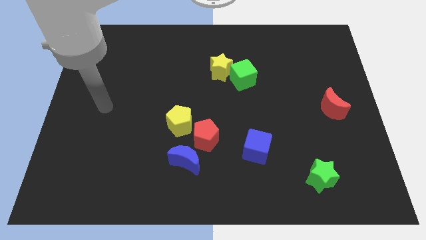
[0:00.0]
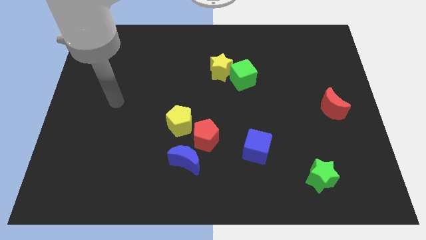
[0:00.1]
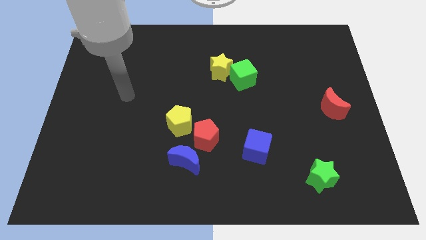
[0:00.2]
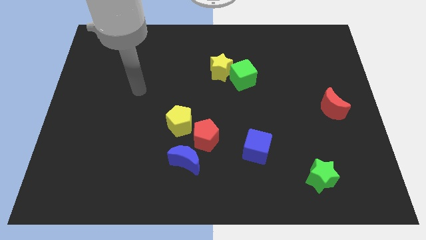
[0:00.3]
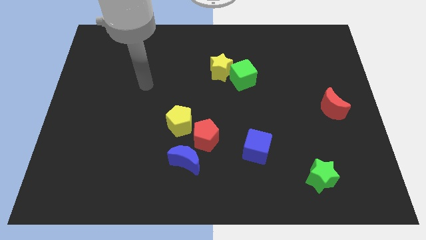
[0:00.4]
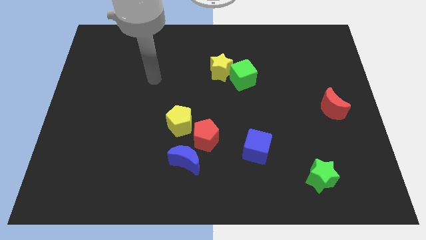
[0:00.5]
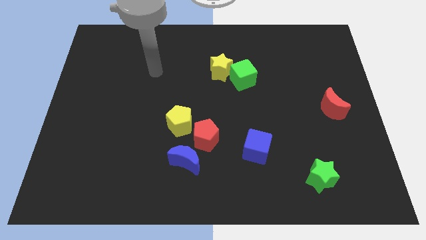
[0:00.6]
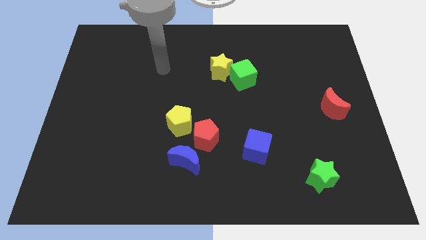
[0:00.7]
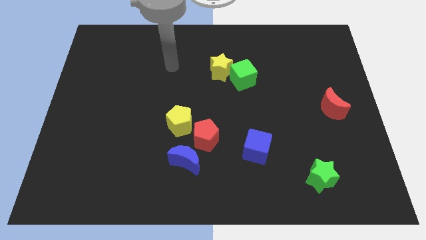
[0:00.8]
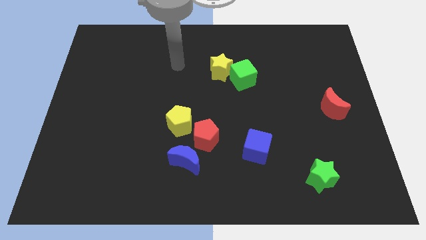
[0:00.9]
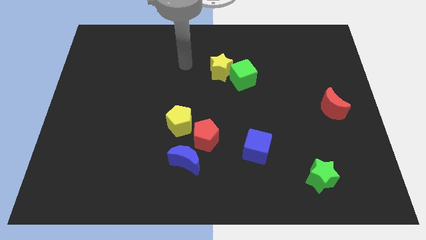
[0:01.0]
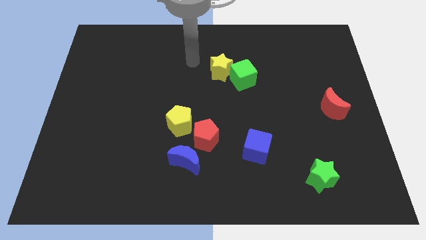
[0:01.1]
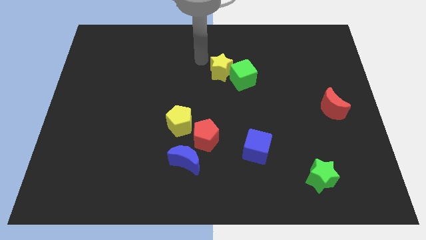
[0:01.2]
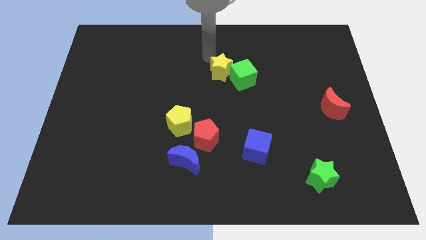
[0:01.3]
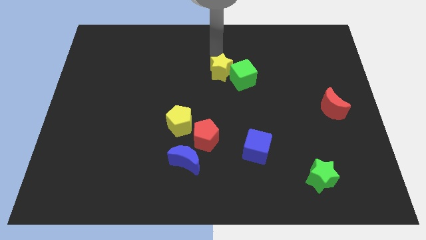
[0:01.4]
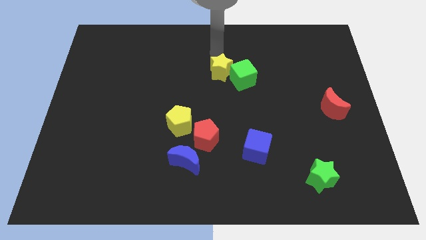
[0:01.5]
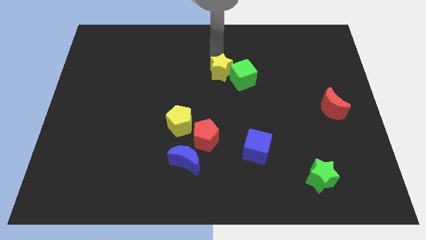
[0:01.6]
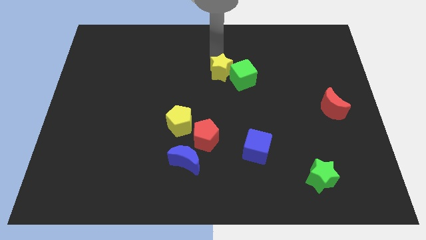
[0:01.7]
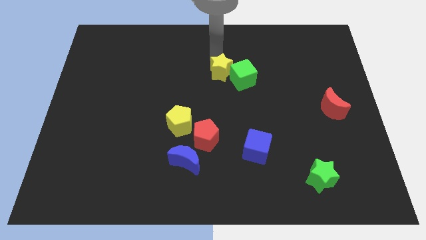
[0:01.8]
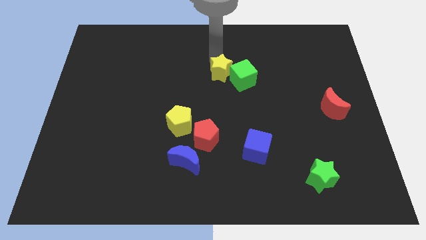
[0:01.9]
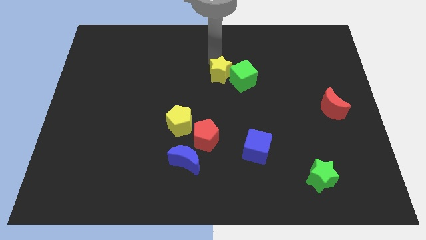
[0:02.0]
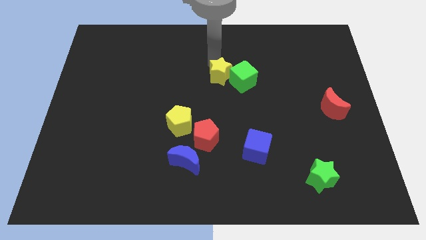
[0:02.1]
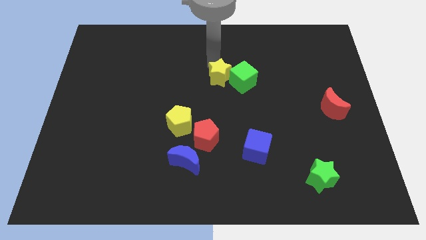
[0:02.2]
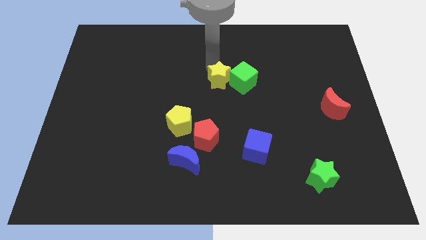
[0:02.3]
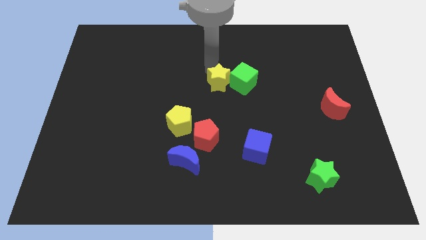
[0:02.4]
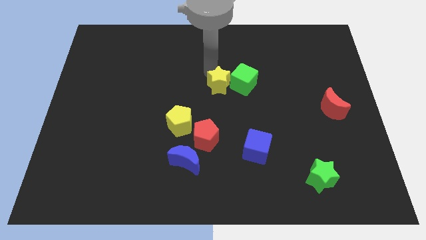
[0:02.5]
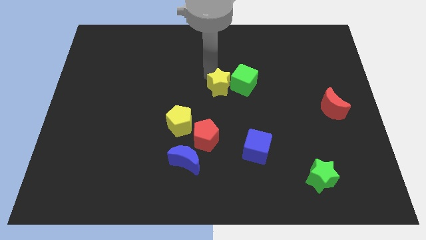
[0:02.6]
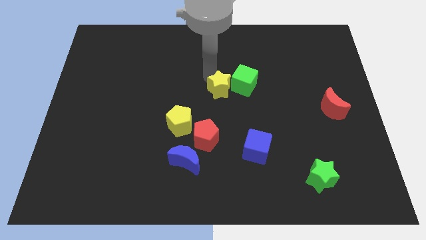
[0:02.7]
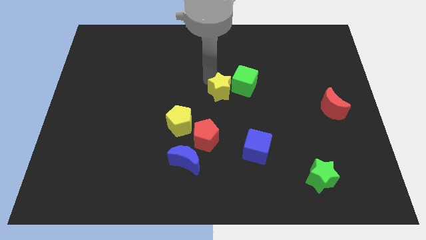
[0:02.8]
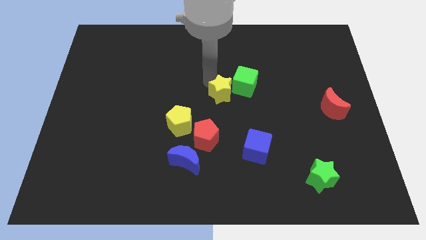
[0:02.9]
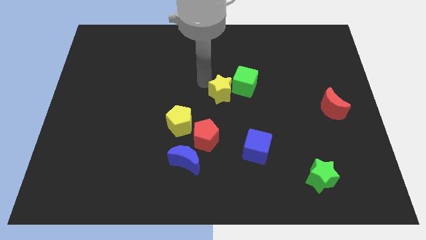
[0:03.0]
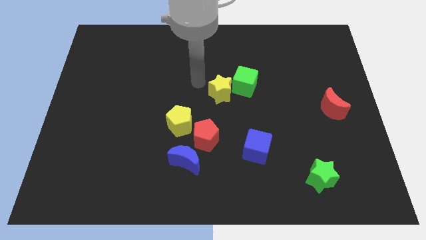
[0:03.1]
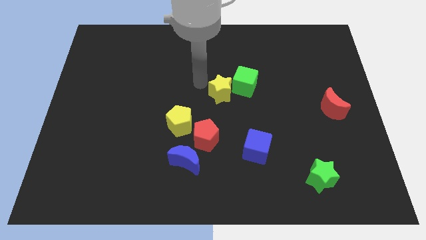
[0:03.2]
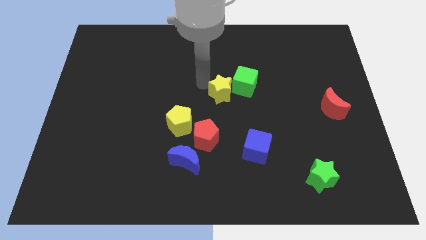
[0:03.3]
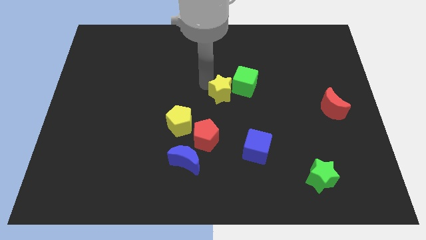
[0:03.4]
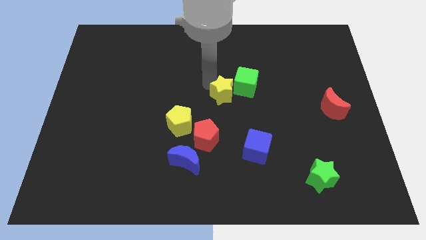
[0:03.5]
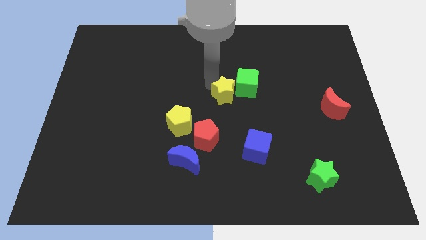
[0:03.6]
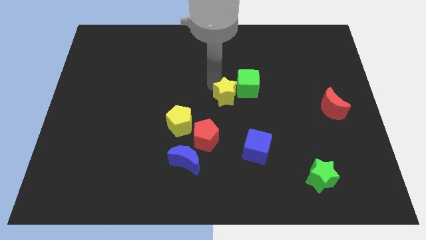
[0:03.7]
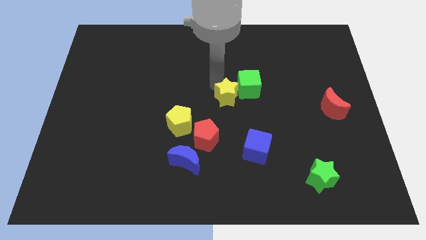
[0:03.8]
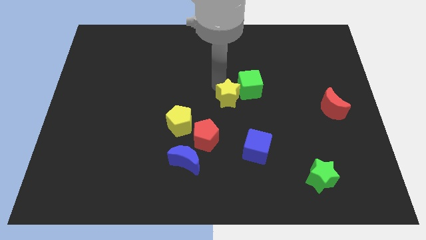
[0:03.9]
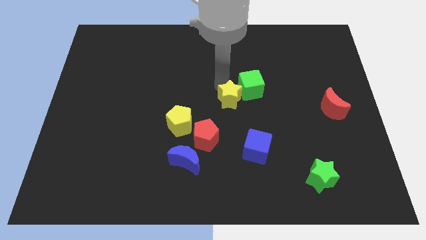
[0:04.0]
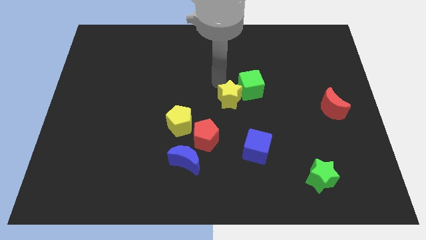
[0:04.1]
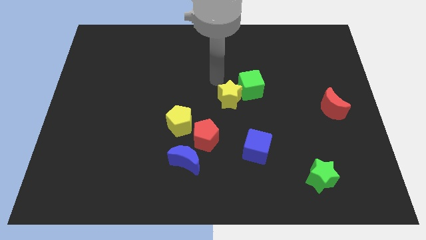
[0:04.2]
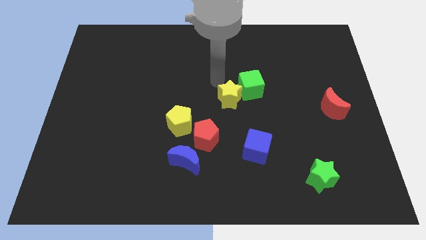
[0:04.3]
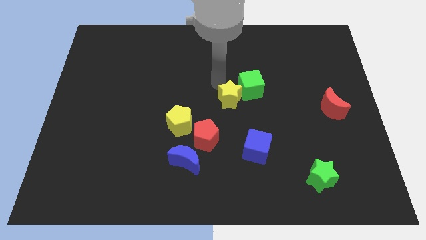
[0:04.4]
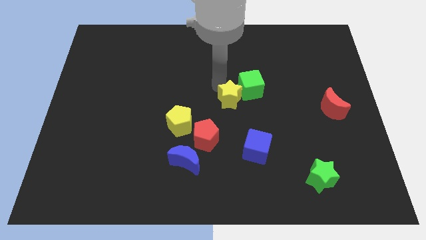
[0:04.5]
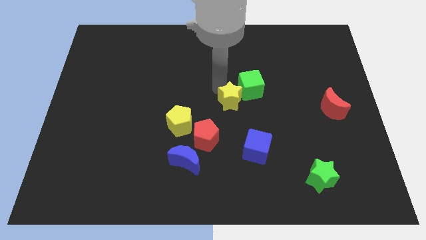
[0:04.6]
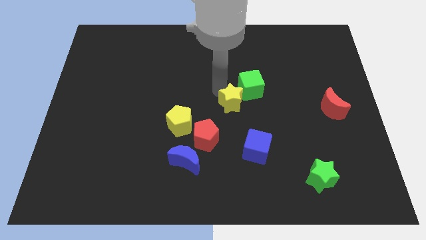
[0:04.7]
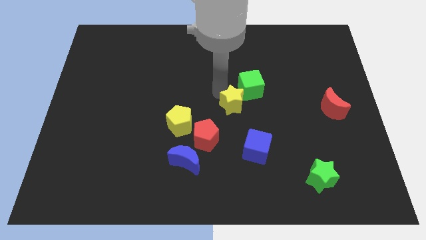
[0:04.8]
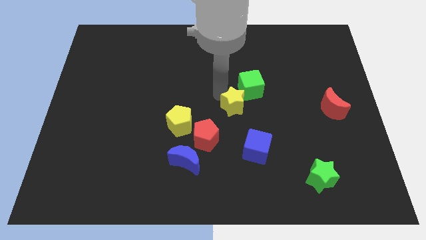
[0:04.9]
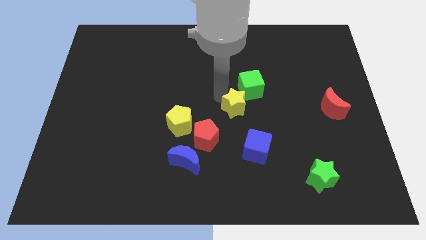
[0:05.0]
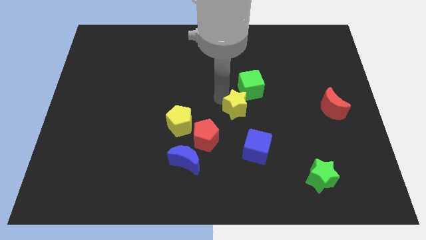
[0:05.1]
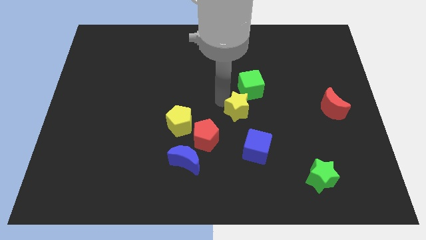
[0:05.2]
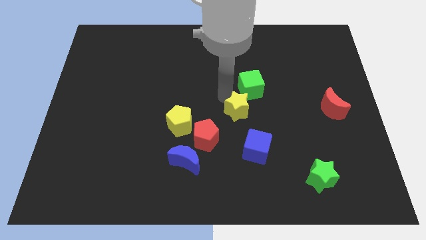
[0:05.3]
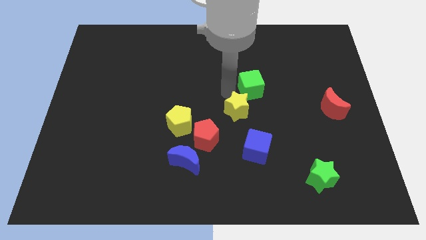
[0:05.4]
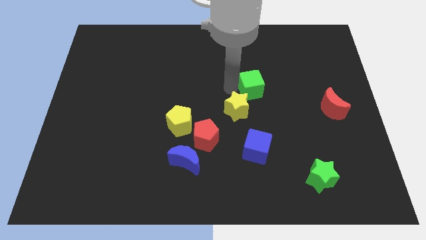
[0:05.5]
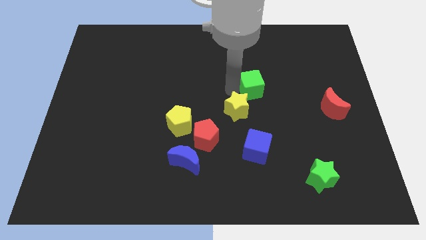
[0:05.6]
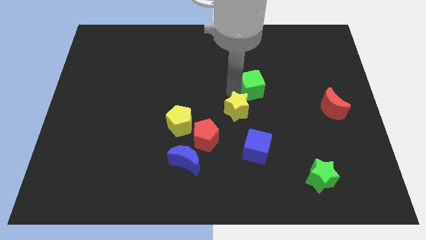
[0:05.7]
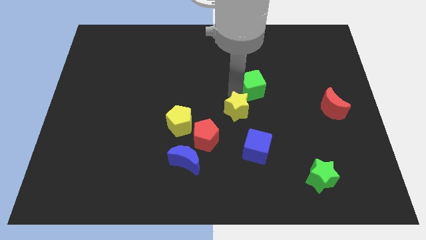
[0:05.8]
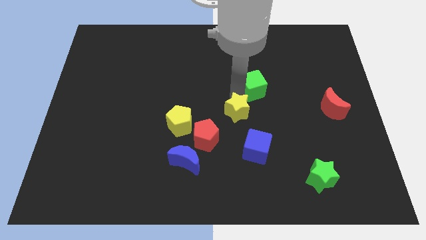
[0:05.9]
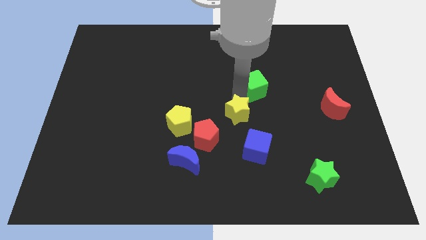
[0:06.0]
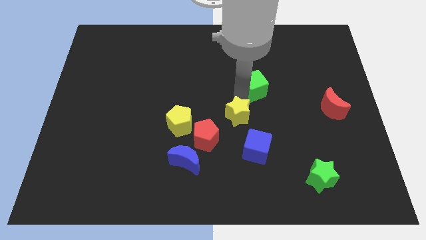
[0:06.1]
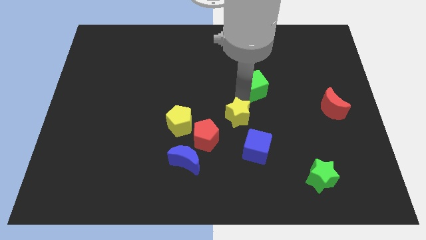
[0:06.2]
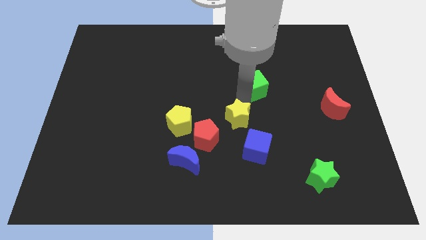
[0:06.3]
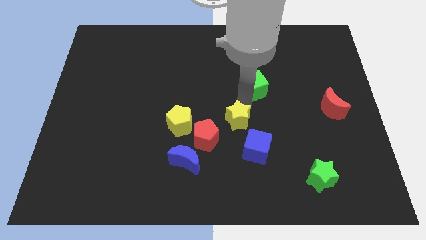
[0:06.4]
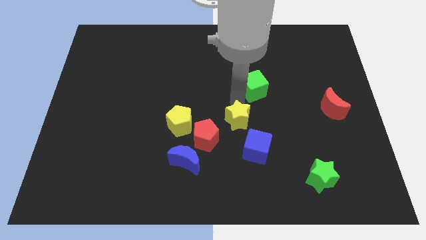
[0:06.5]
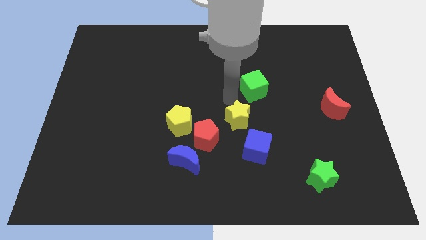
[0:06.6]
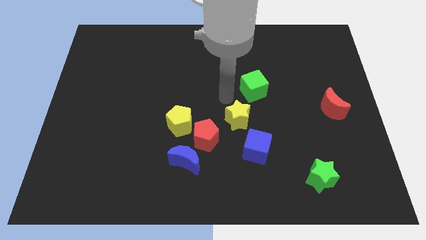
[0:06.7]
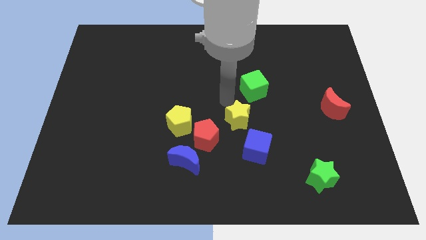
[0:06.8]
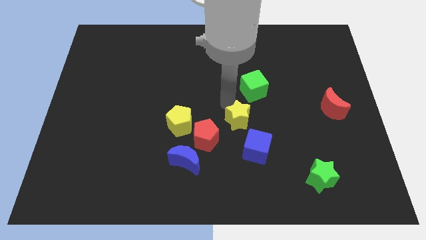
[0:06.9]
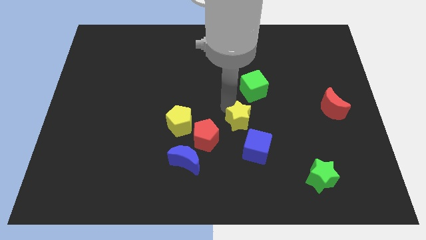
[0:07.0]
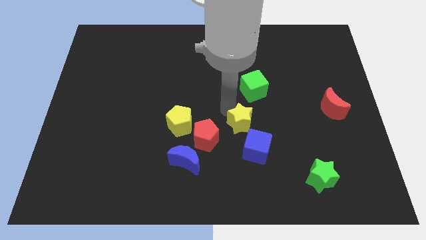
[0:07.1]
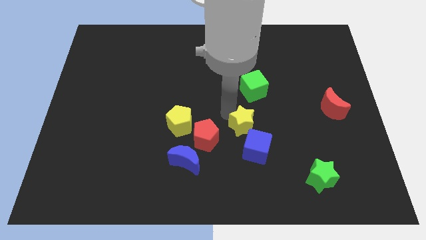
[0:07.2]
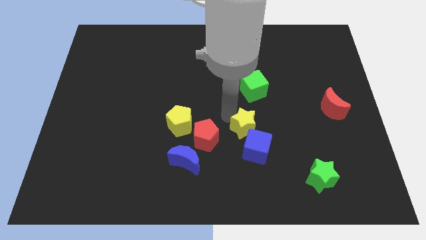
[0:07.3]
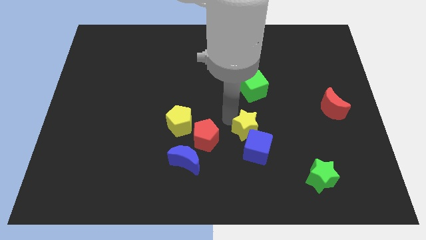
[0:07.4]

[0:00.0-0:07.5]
put the yellow star towards the blue cube

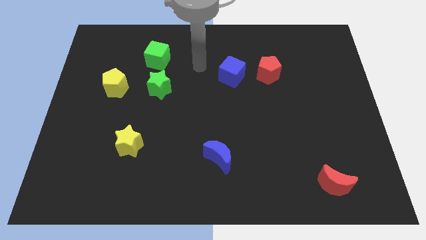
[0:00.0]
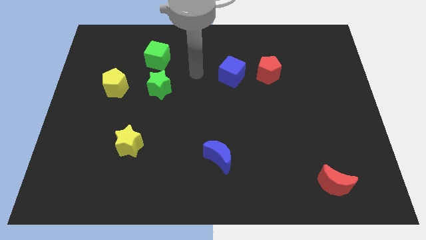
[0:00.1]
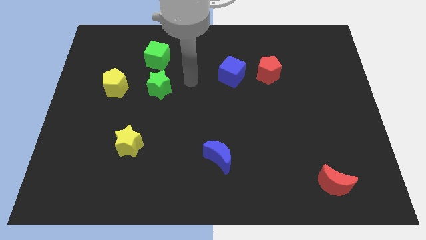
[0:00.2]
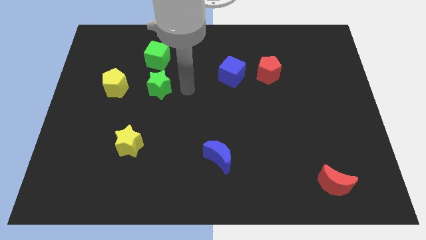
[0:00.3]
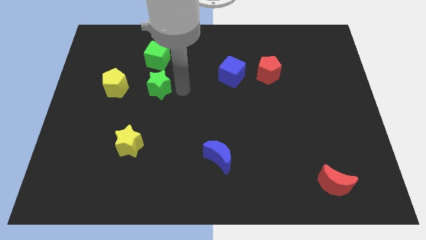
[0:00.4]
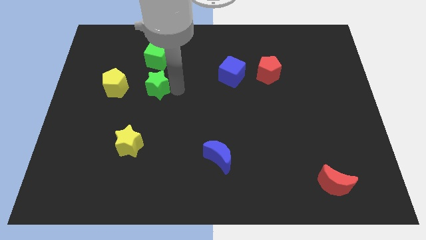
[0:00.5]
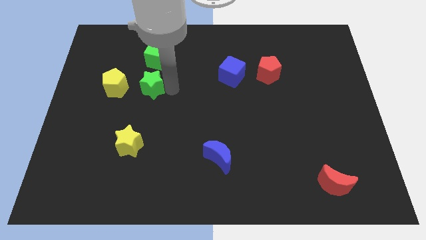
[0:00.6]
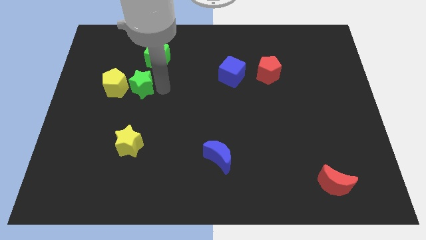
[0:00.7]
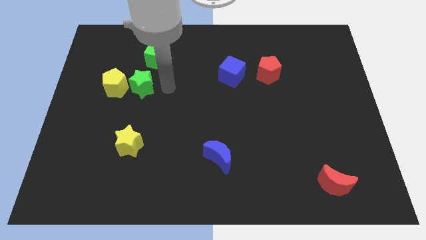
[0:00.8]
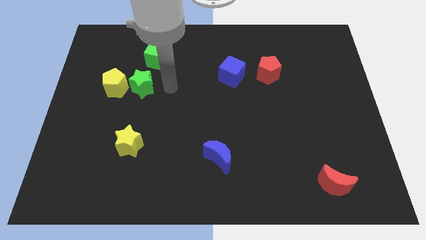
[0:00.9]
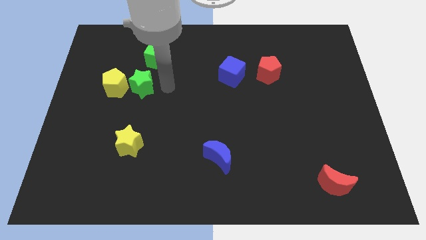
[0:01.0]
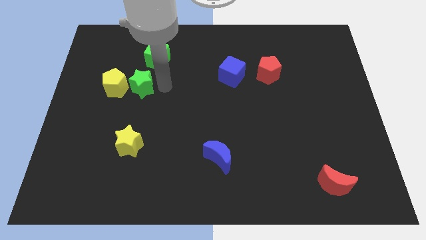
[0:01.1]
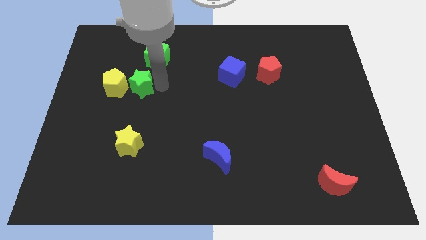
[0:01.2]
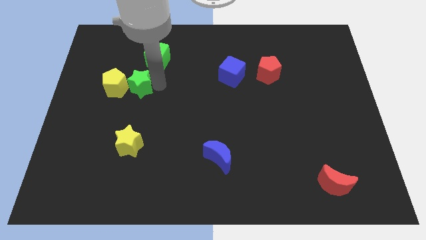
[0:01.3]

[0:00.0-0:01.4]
move the green star towards the yellow pentagon
